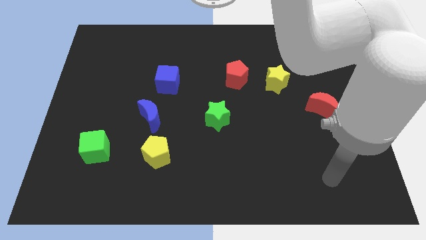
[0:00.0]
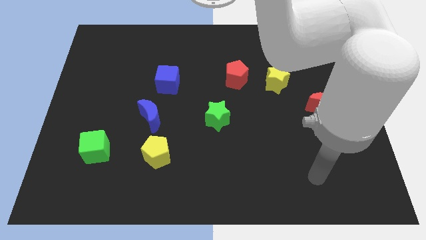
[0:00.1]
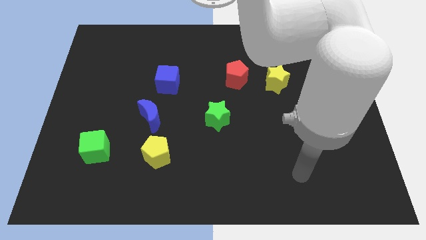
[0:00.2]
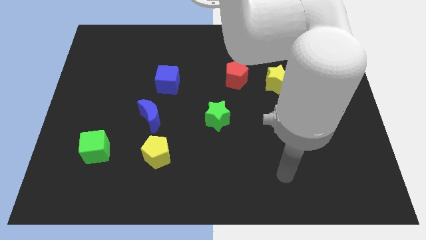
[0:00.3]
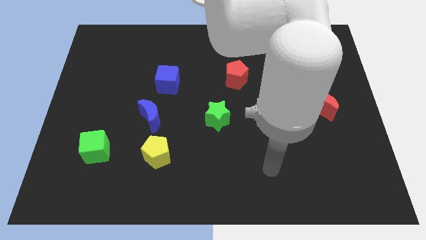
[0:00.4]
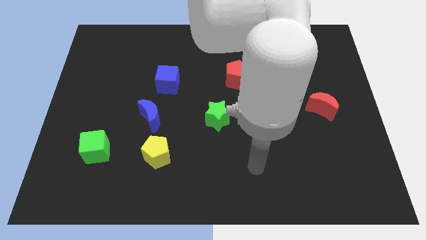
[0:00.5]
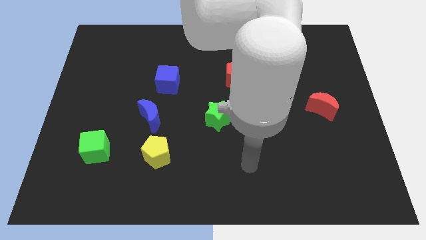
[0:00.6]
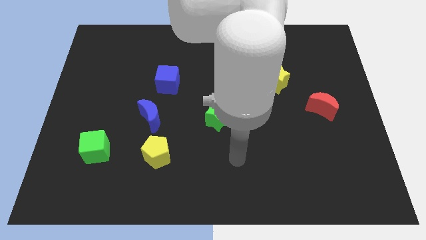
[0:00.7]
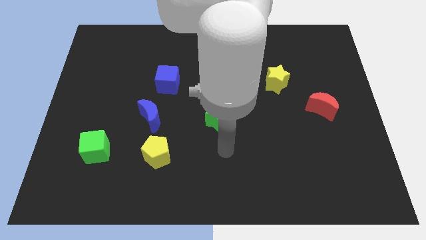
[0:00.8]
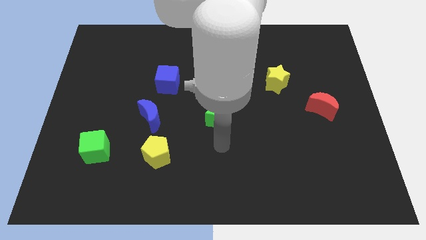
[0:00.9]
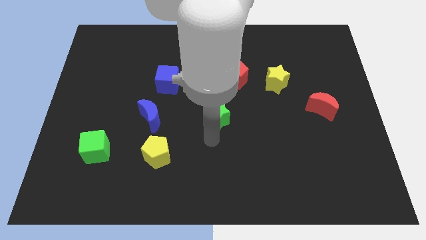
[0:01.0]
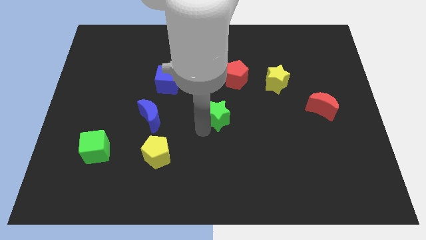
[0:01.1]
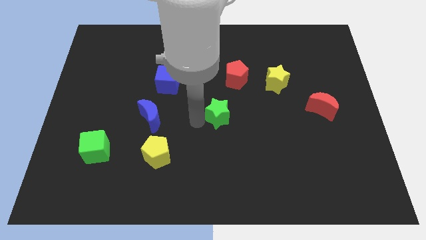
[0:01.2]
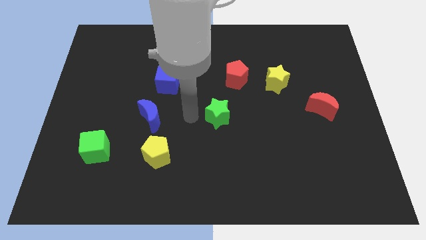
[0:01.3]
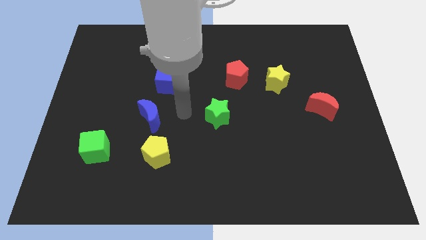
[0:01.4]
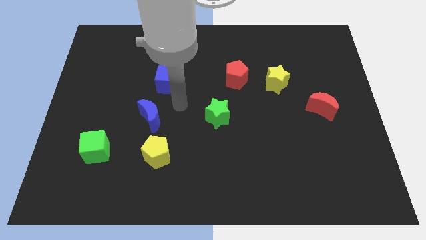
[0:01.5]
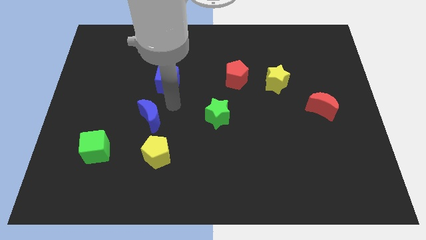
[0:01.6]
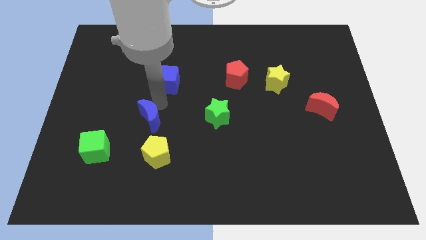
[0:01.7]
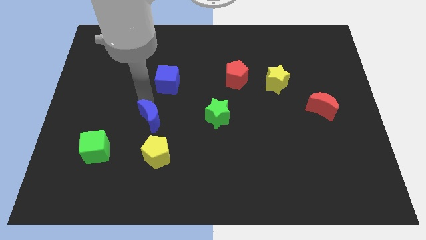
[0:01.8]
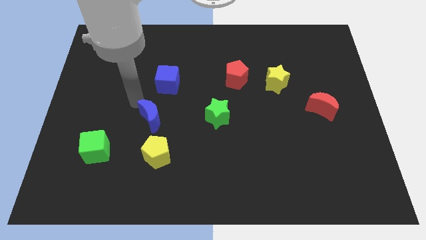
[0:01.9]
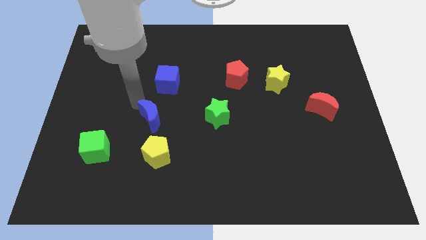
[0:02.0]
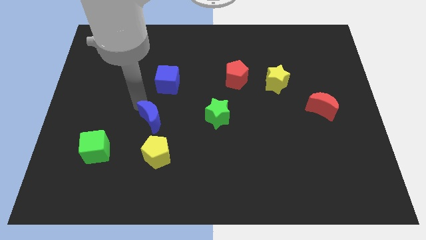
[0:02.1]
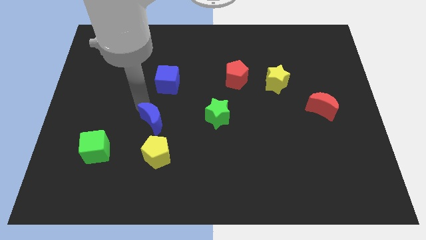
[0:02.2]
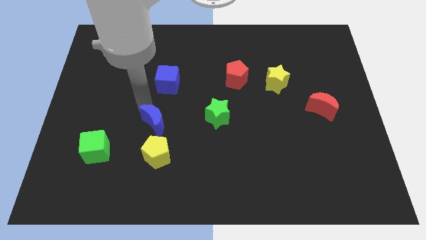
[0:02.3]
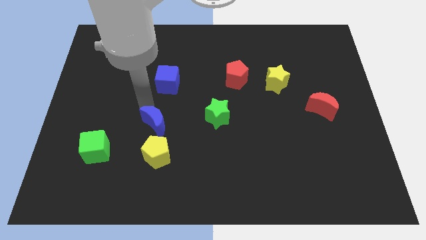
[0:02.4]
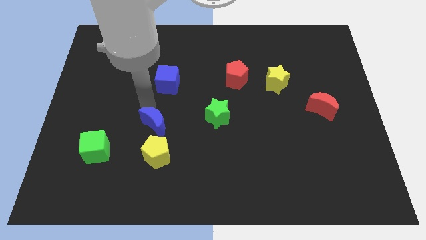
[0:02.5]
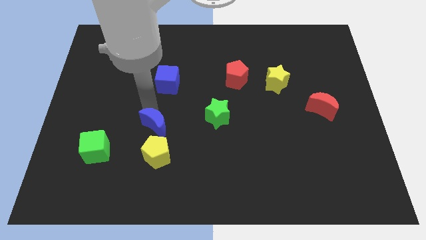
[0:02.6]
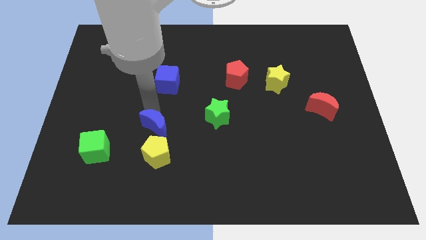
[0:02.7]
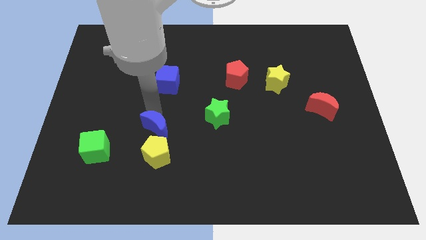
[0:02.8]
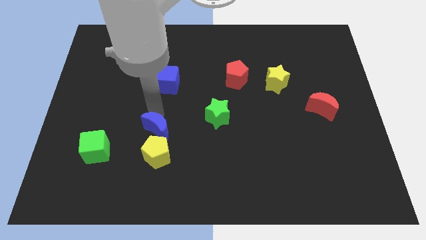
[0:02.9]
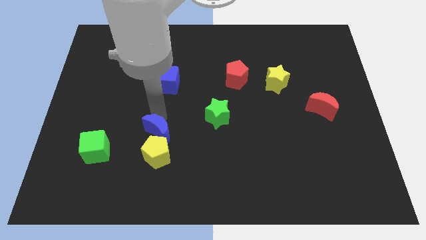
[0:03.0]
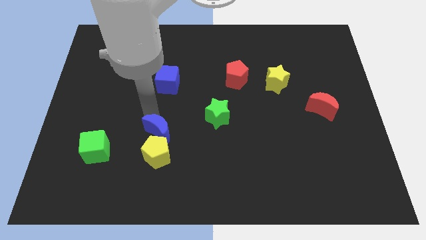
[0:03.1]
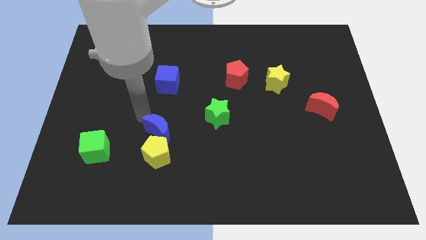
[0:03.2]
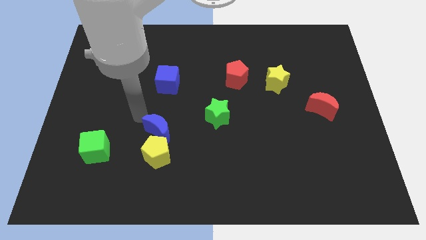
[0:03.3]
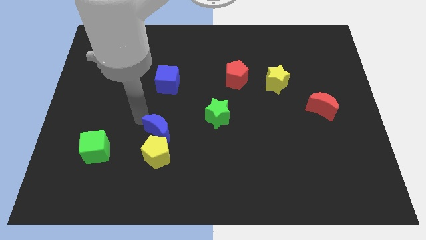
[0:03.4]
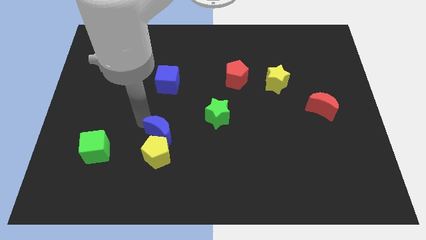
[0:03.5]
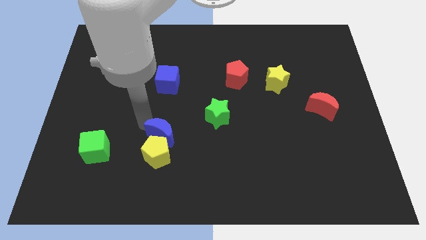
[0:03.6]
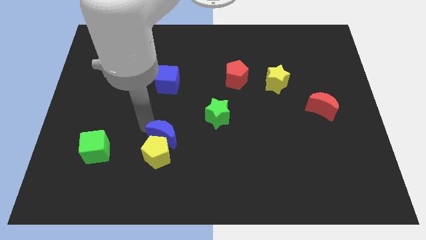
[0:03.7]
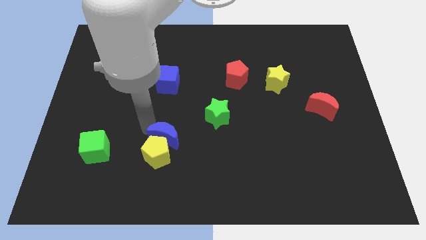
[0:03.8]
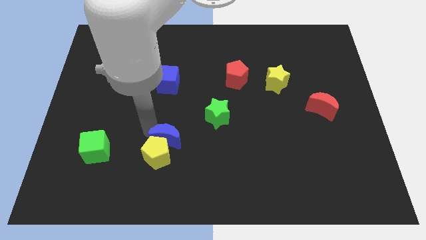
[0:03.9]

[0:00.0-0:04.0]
move the blue moon a bit diagonally down and to the right

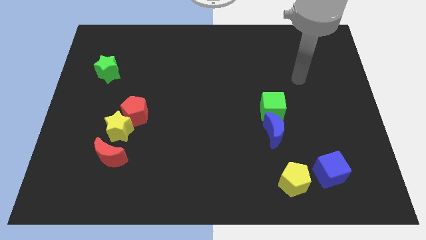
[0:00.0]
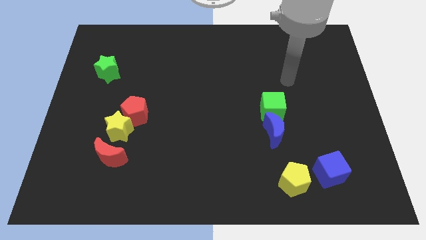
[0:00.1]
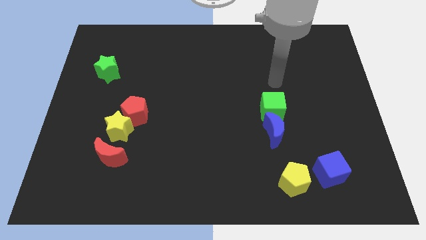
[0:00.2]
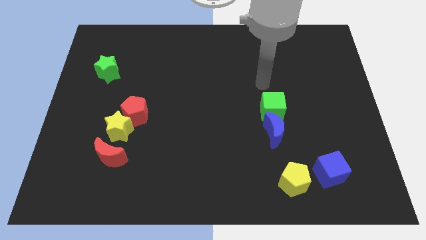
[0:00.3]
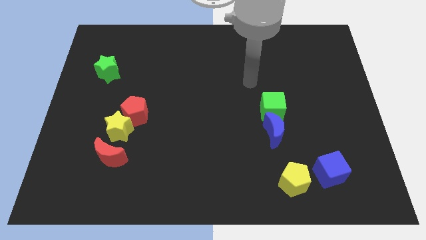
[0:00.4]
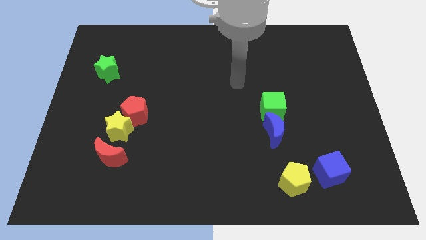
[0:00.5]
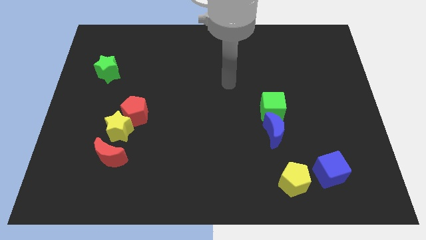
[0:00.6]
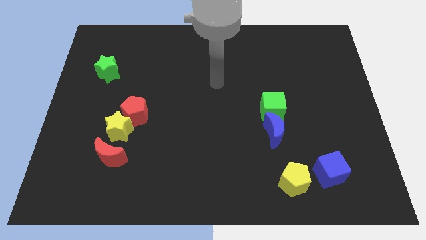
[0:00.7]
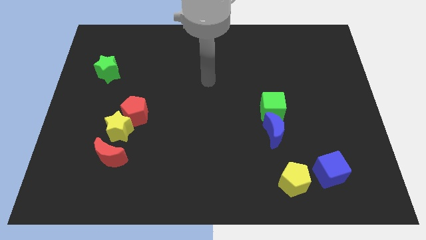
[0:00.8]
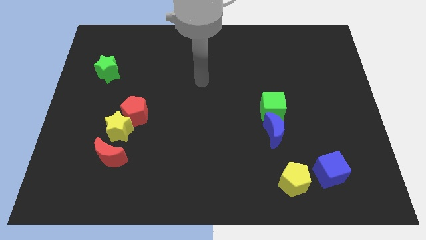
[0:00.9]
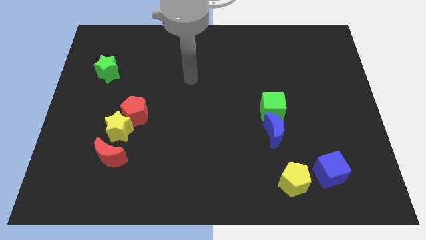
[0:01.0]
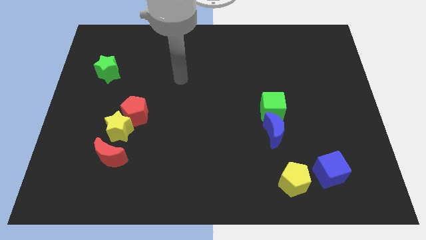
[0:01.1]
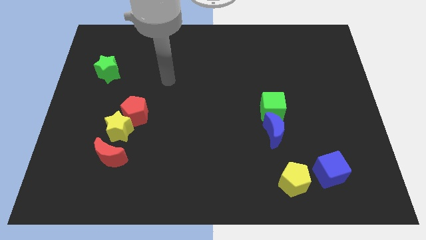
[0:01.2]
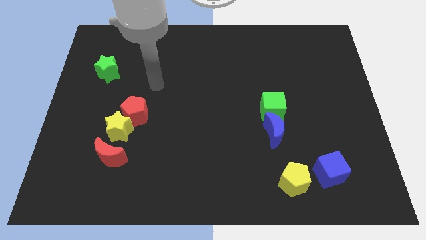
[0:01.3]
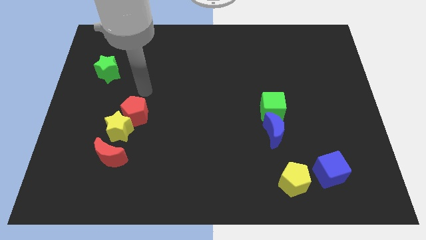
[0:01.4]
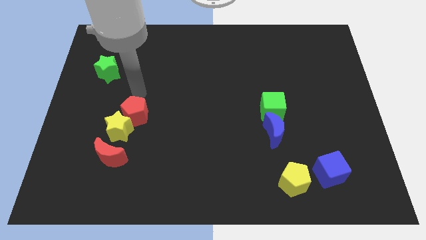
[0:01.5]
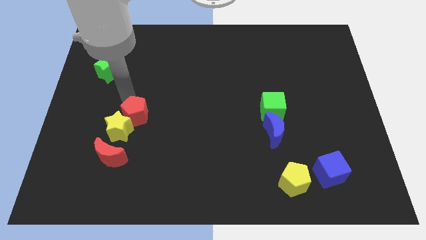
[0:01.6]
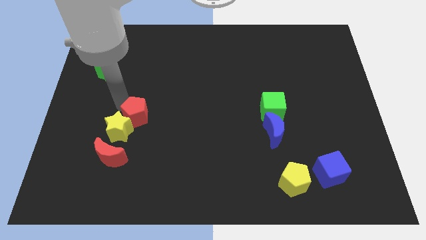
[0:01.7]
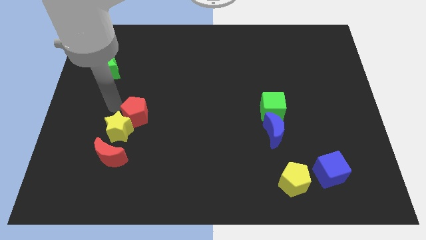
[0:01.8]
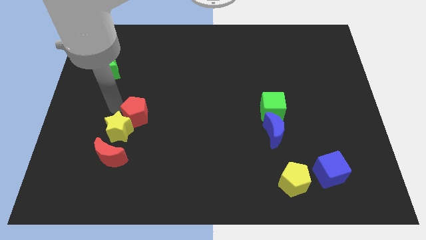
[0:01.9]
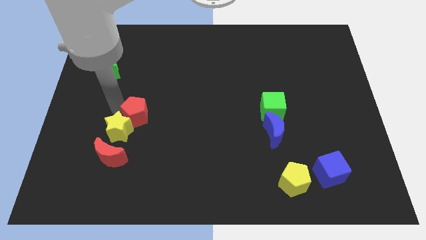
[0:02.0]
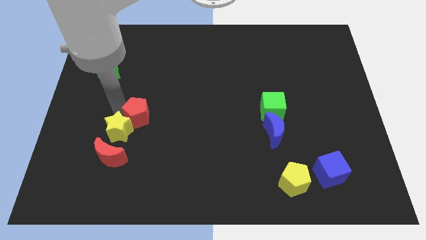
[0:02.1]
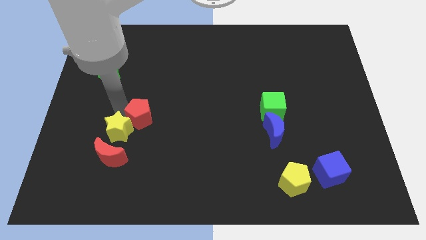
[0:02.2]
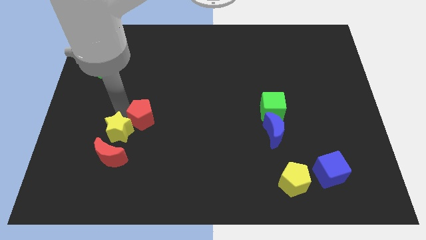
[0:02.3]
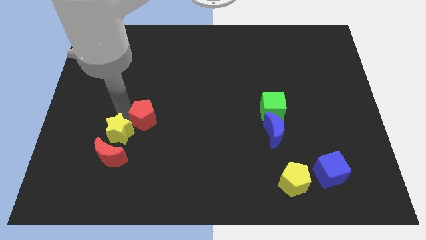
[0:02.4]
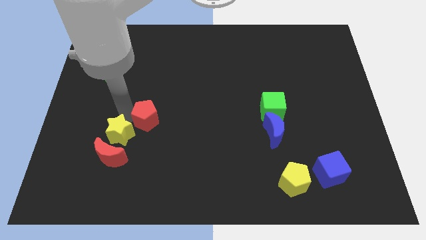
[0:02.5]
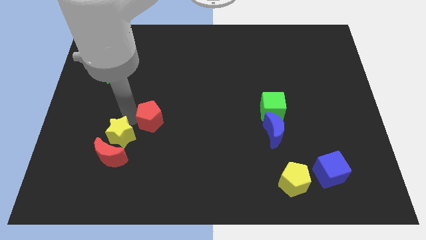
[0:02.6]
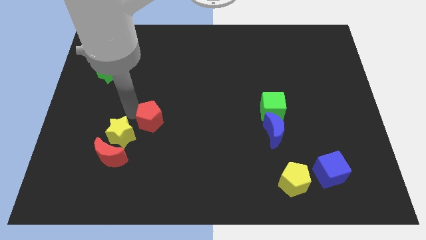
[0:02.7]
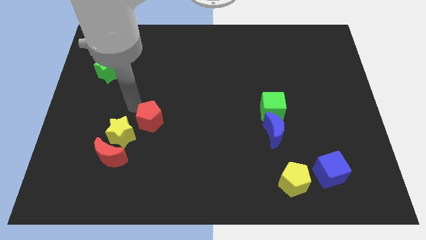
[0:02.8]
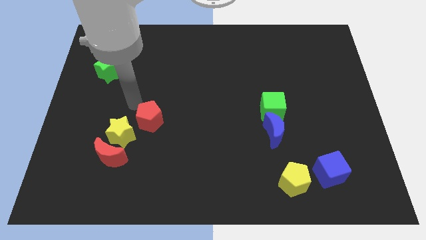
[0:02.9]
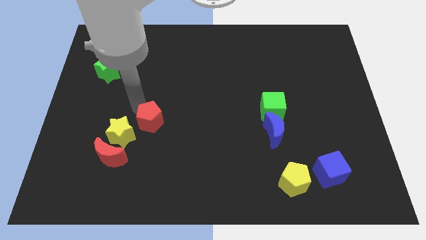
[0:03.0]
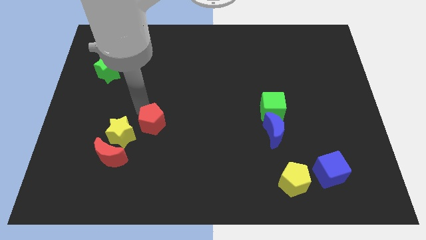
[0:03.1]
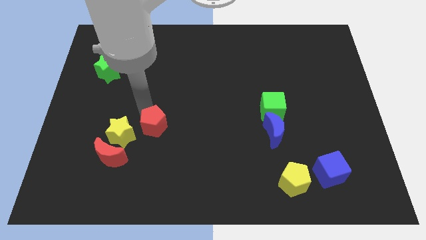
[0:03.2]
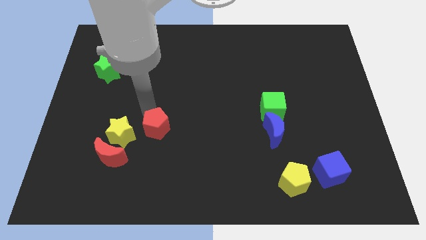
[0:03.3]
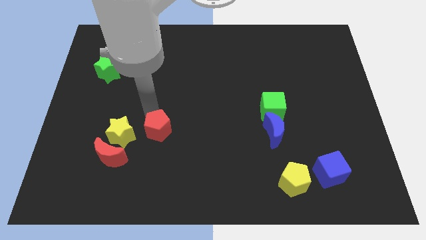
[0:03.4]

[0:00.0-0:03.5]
push the red pentagon diagonally down and to the right a bit

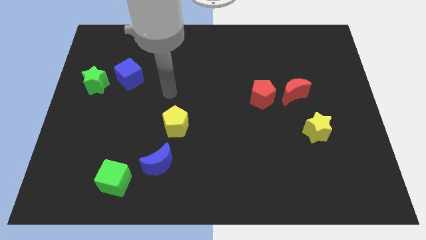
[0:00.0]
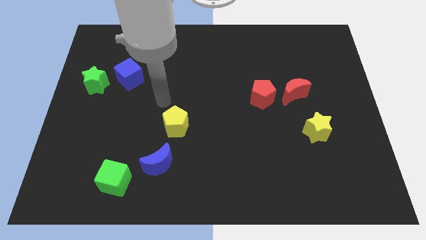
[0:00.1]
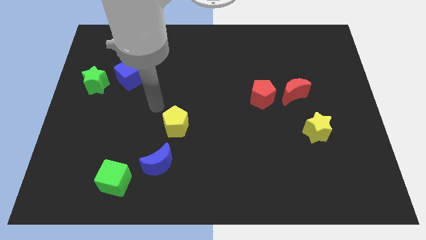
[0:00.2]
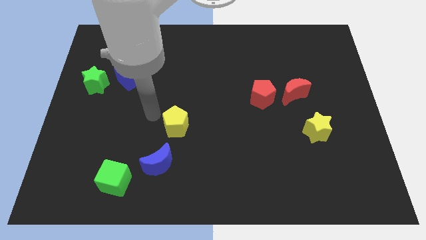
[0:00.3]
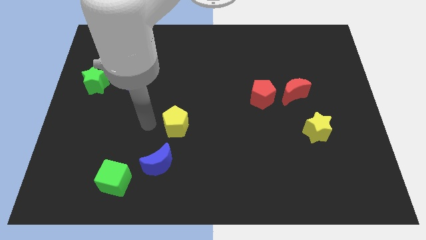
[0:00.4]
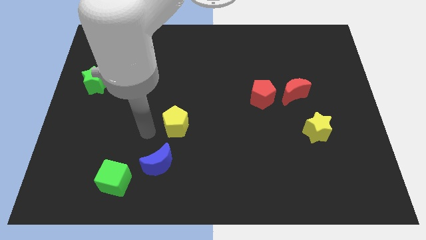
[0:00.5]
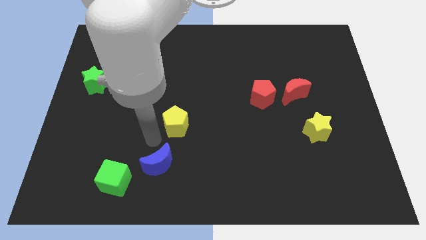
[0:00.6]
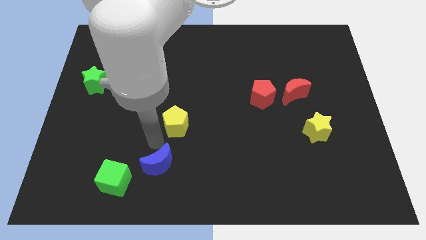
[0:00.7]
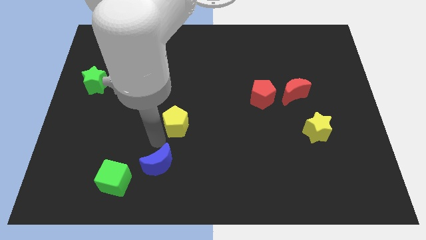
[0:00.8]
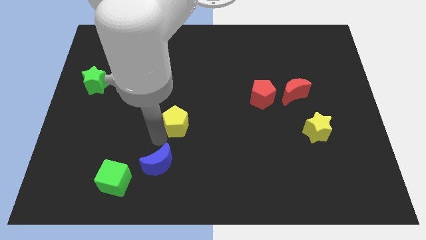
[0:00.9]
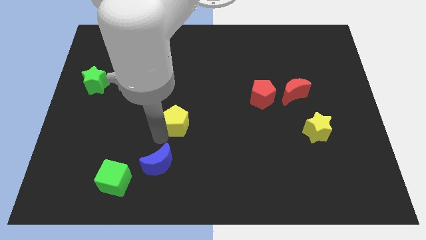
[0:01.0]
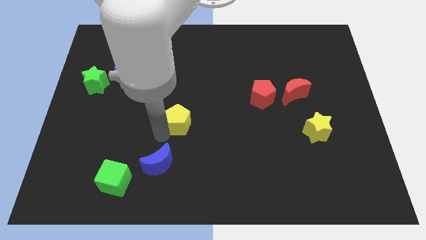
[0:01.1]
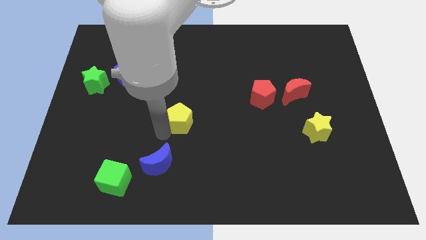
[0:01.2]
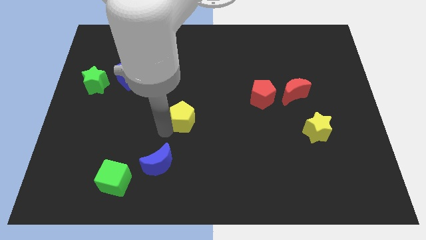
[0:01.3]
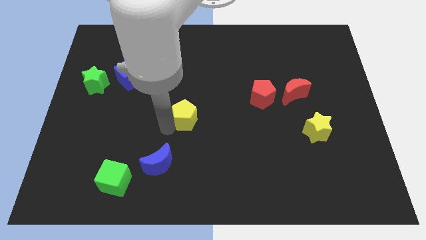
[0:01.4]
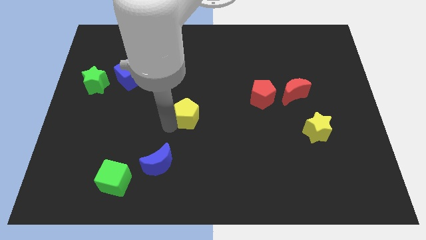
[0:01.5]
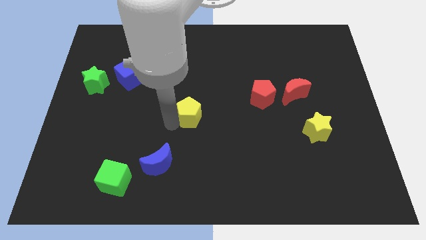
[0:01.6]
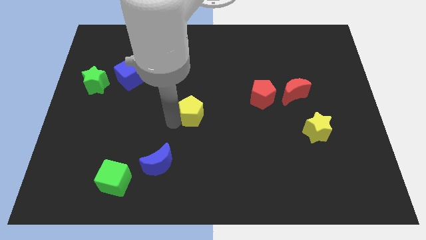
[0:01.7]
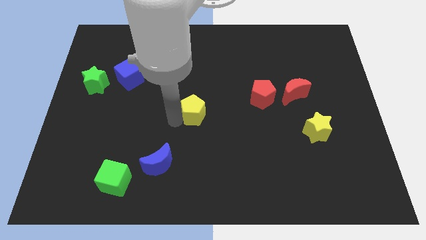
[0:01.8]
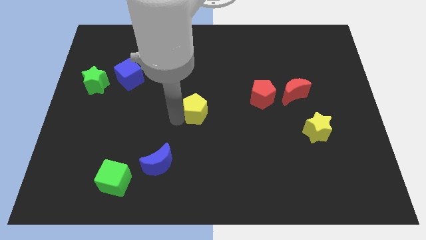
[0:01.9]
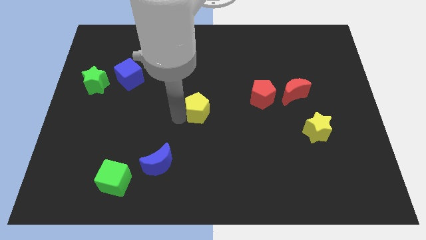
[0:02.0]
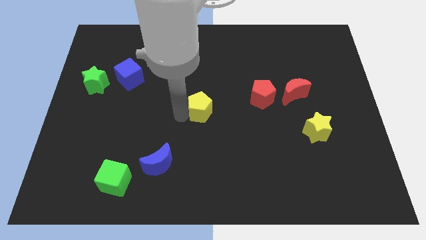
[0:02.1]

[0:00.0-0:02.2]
push the yellow pentagon upwards and right slightly
